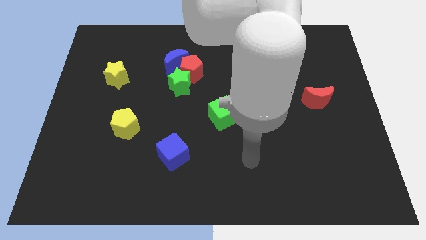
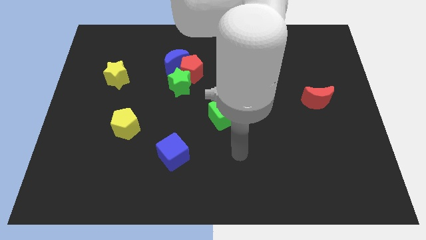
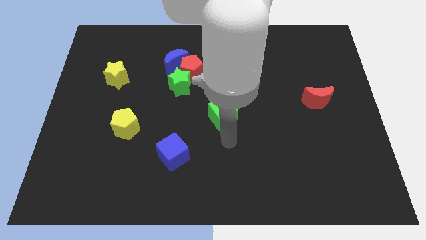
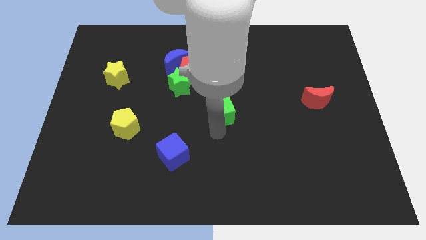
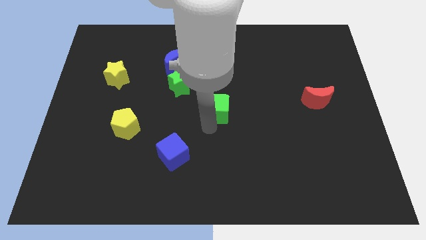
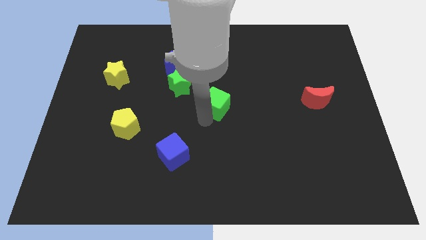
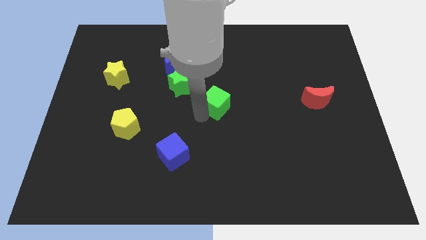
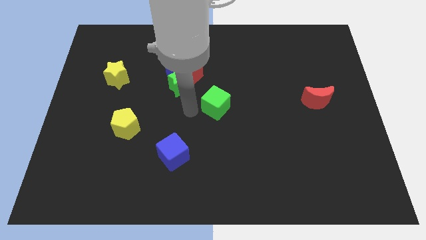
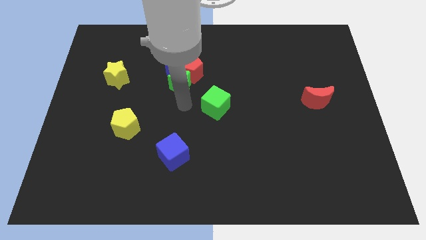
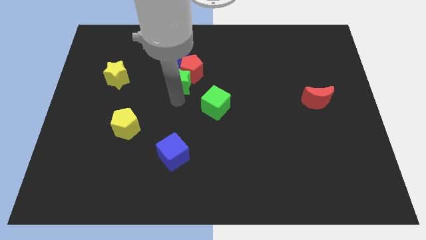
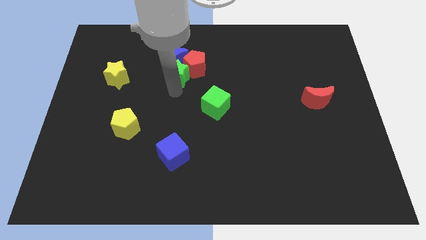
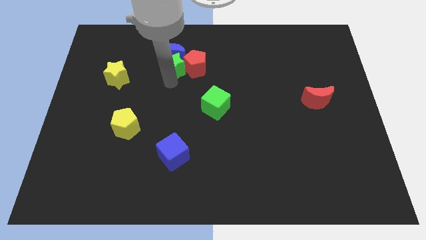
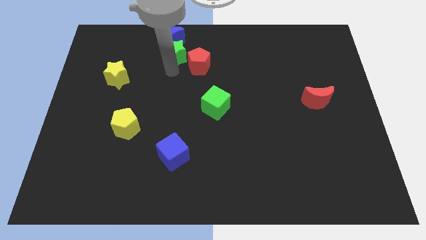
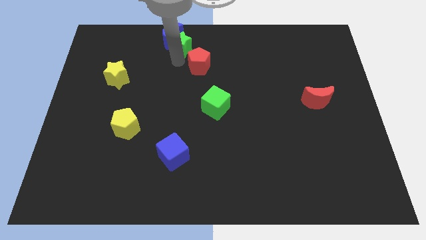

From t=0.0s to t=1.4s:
move the red pentagon away from the blue moon and green star

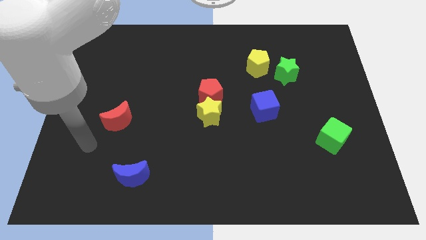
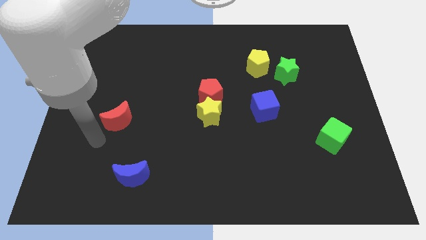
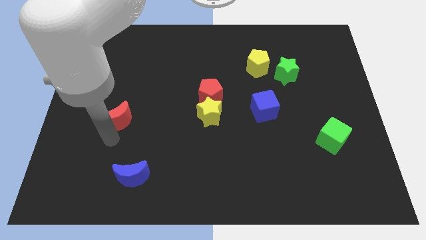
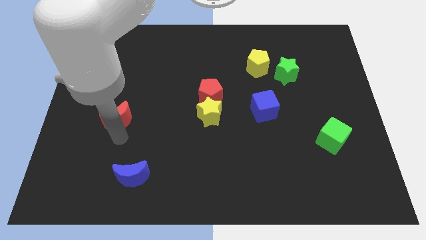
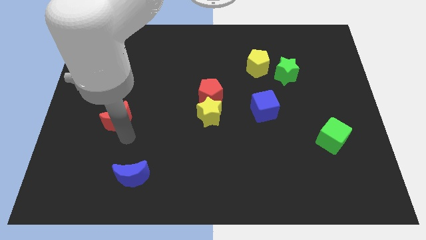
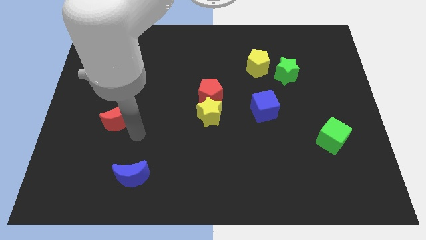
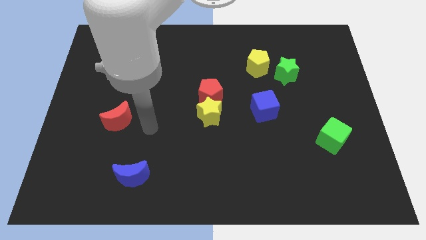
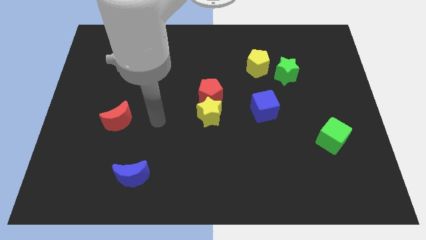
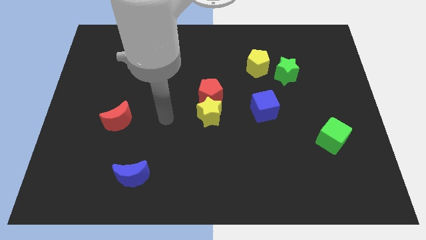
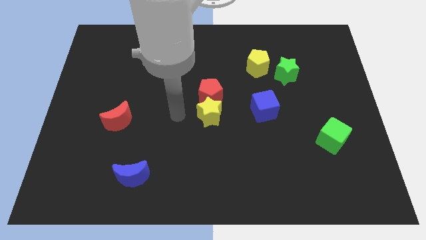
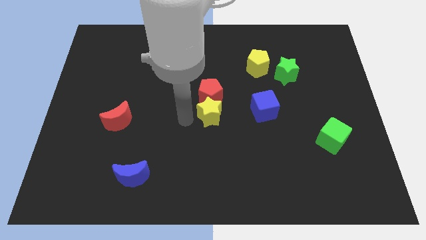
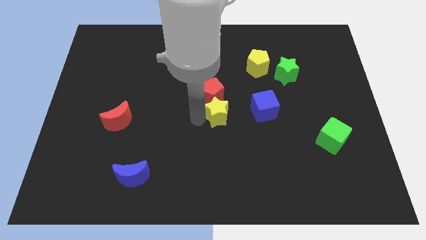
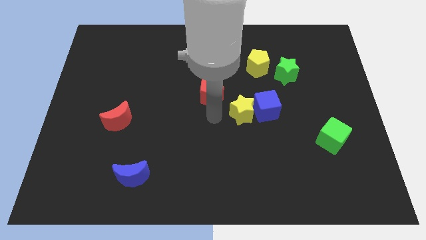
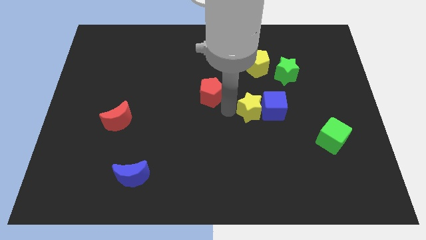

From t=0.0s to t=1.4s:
pull the red pentagon apart from the yellow star

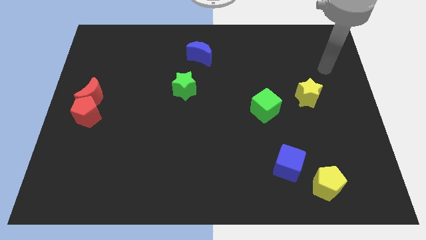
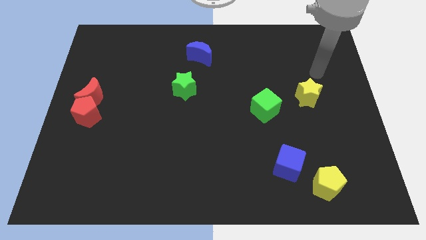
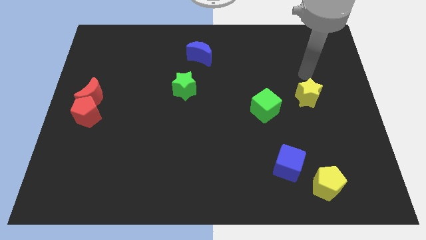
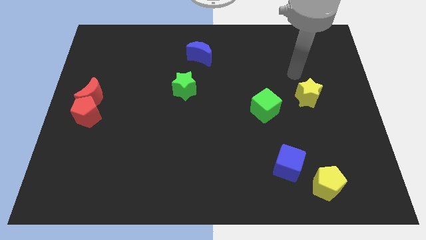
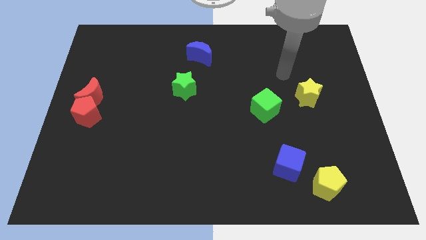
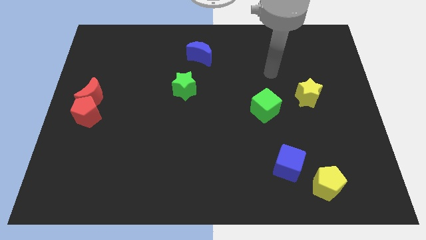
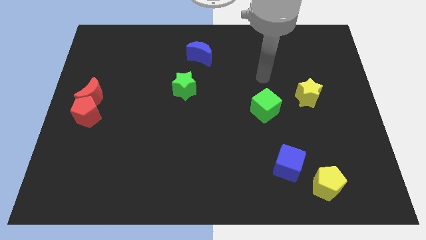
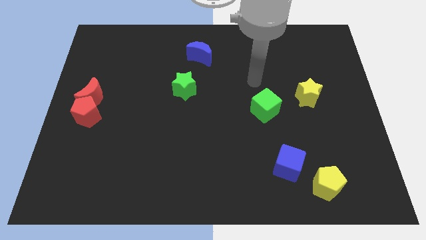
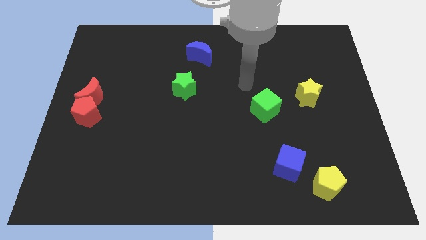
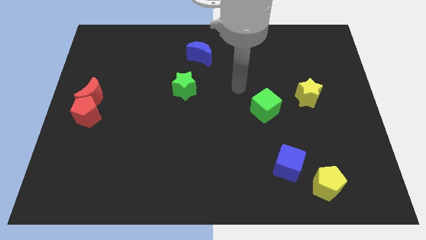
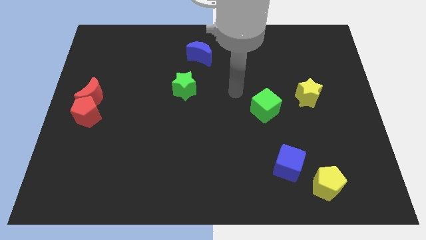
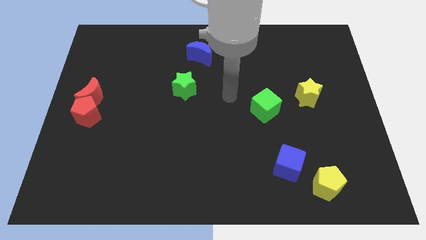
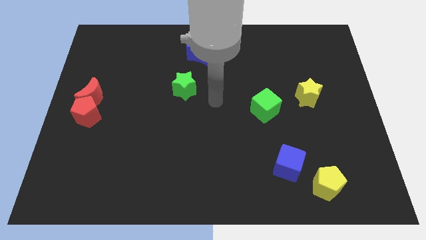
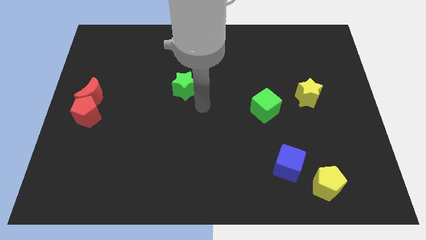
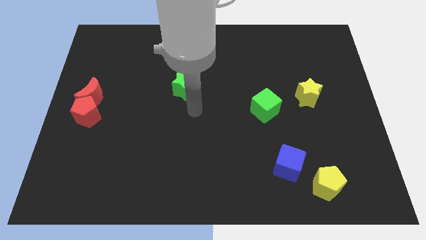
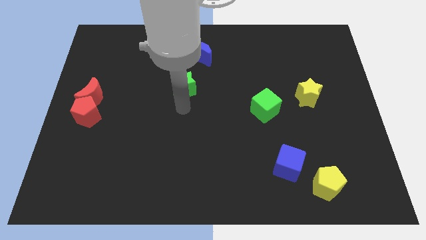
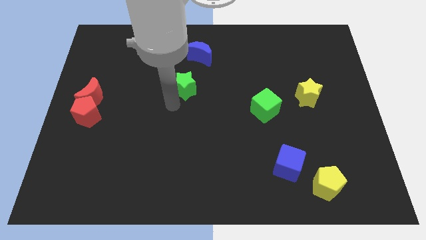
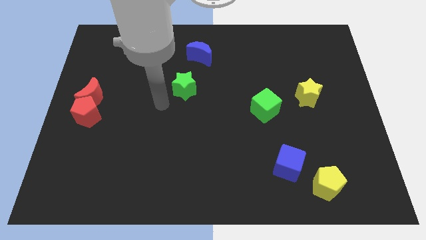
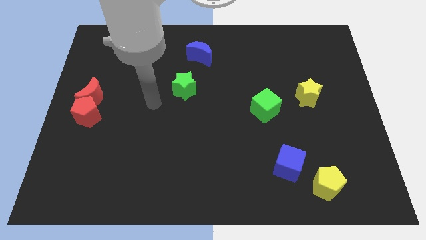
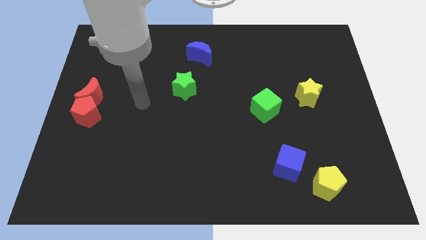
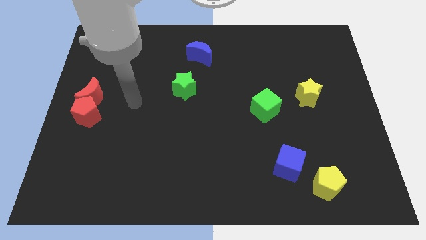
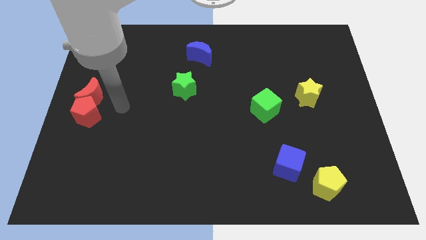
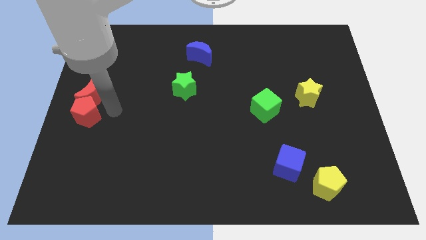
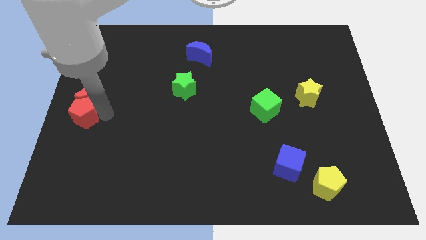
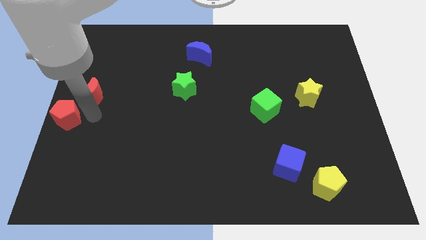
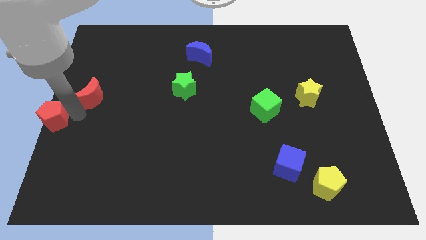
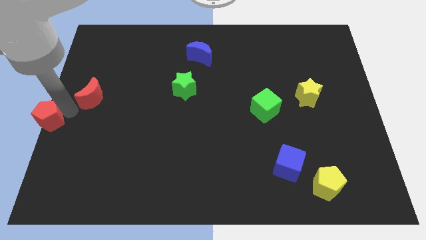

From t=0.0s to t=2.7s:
separate the red moon from the red pentagon

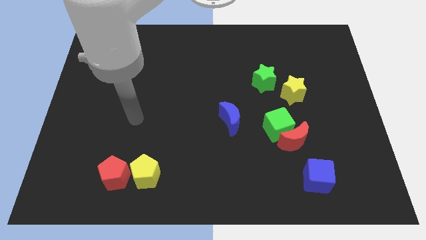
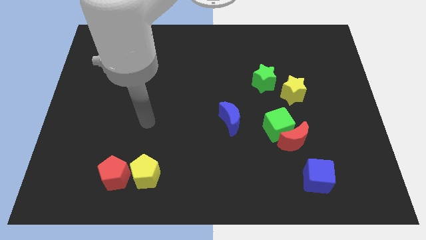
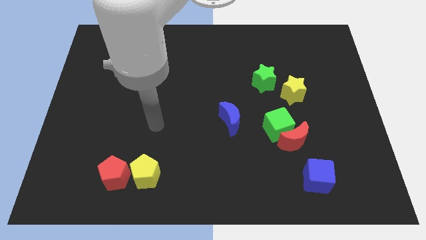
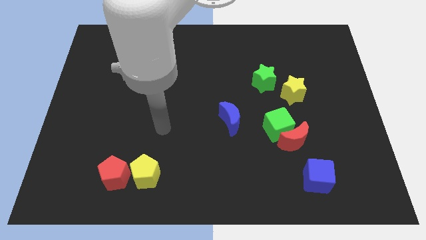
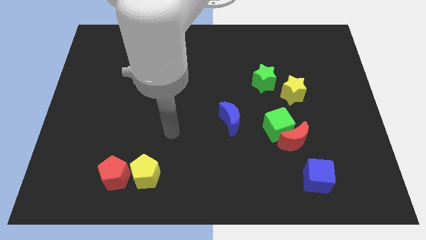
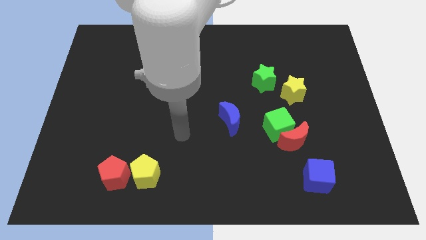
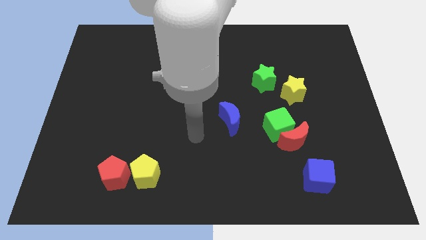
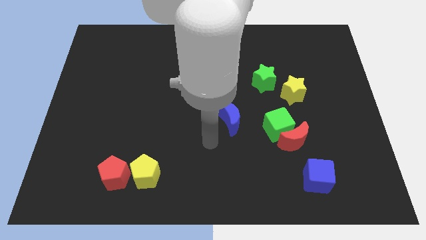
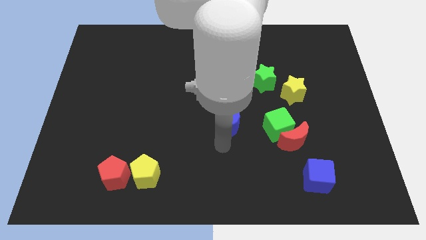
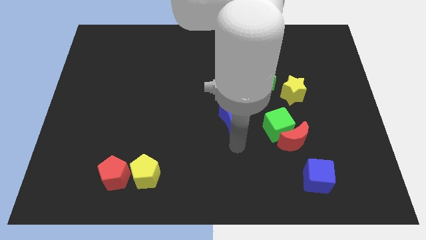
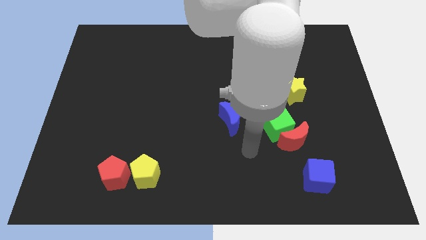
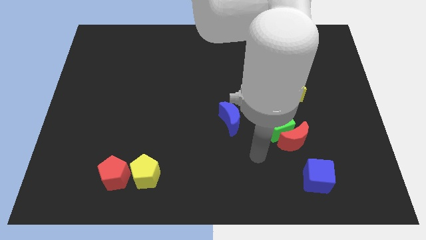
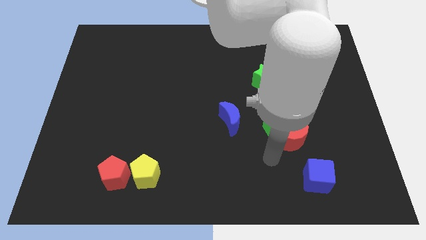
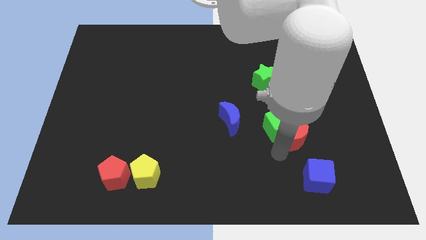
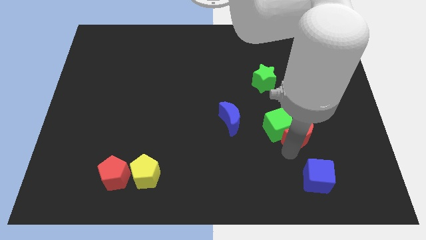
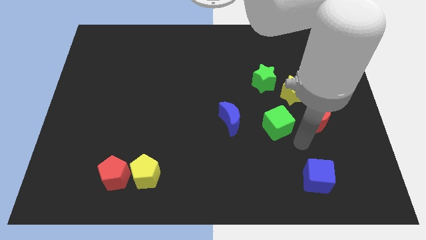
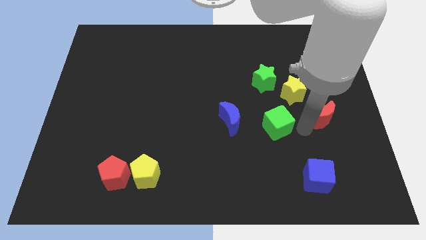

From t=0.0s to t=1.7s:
move the green cube away from the red moon

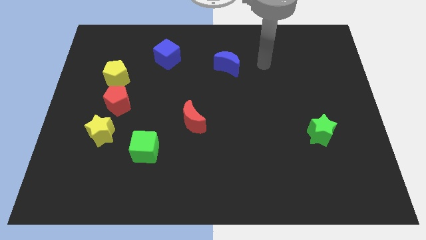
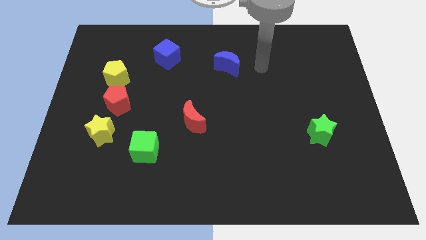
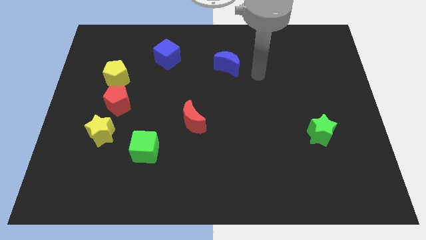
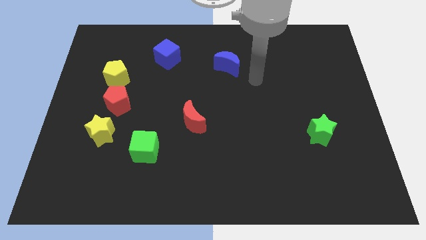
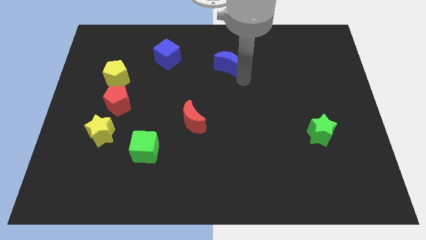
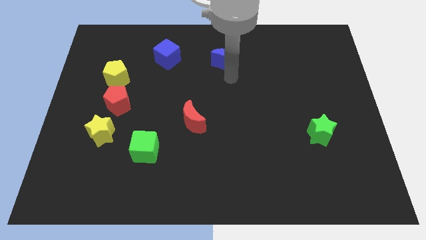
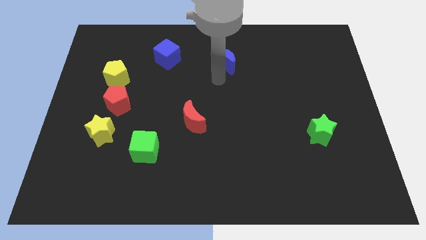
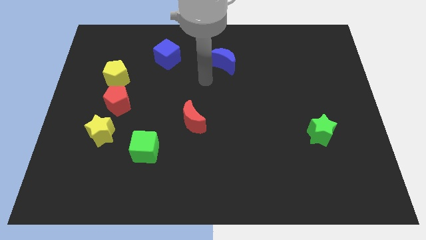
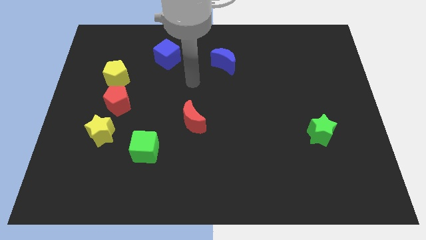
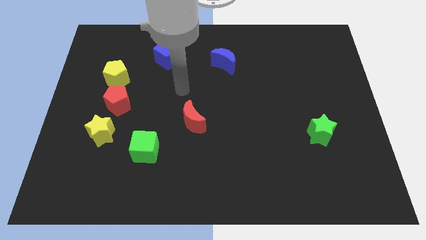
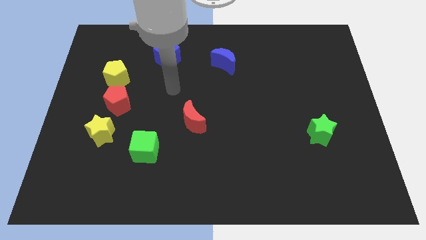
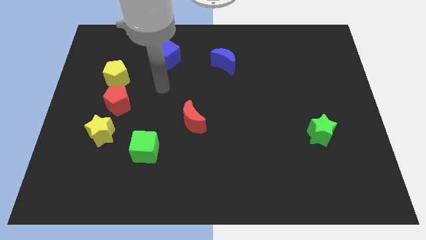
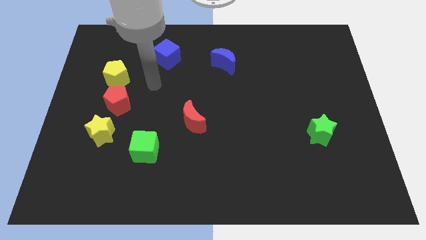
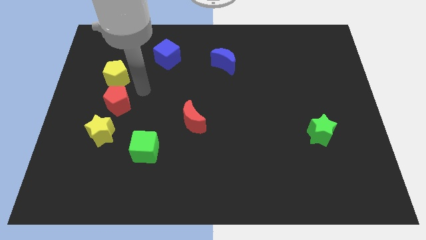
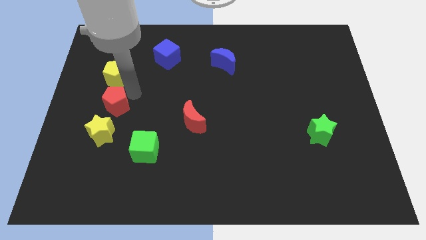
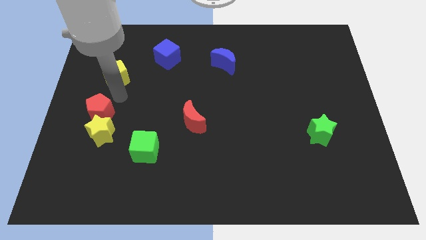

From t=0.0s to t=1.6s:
move the yellow pentagon away from the red pentagon

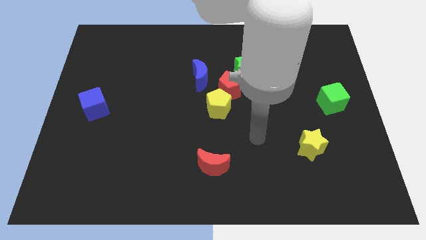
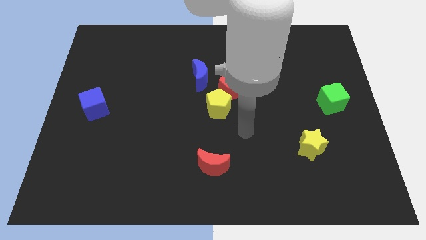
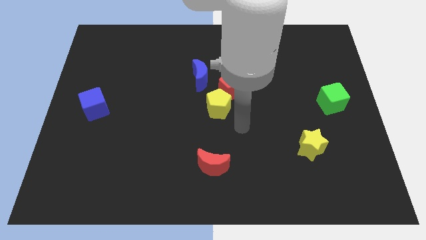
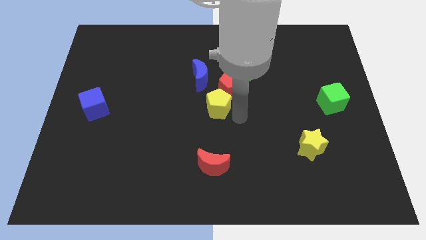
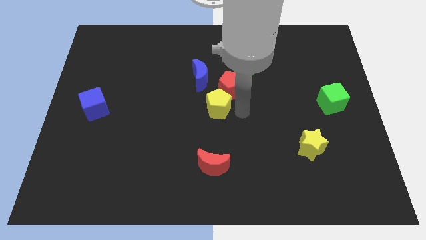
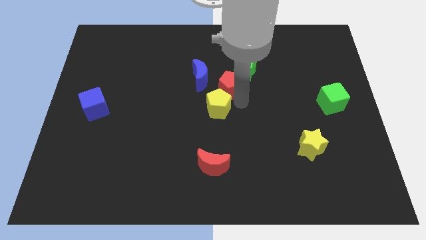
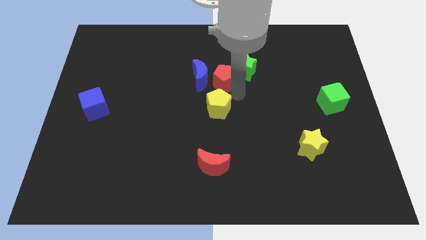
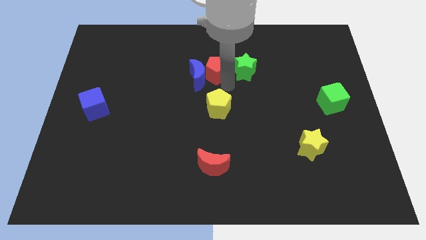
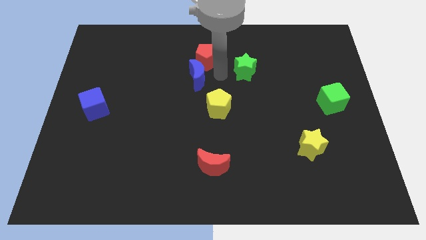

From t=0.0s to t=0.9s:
separate the green star from the red pentagon
